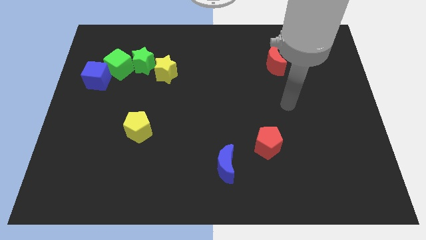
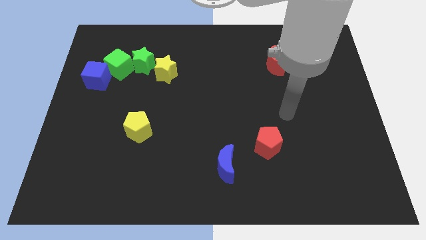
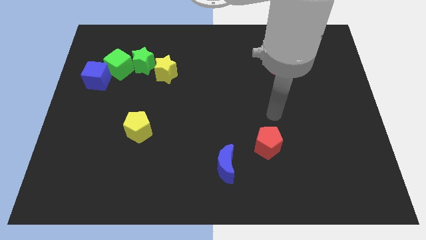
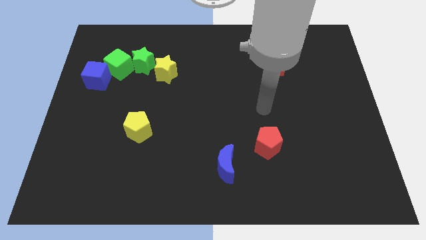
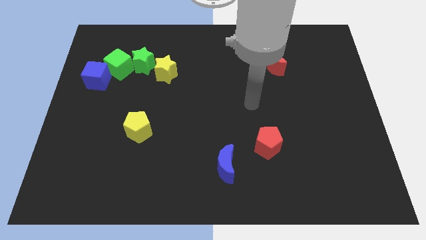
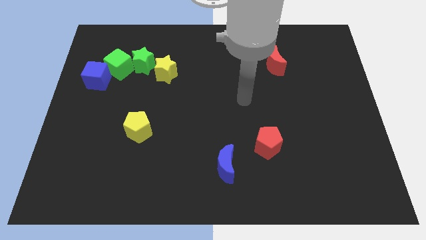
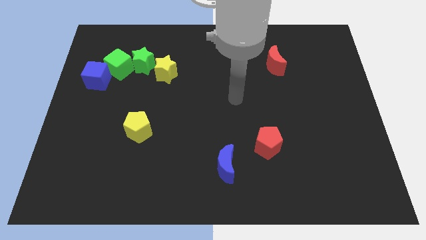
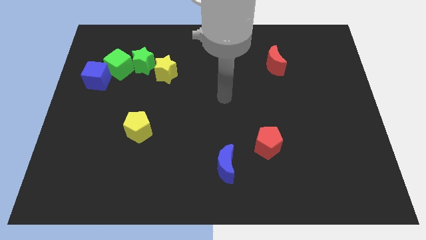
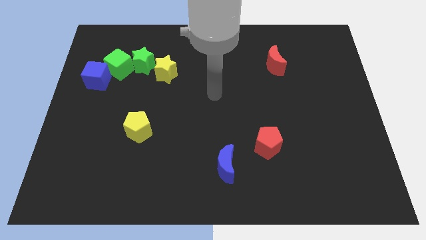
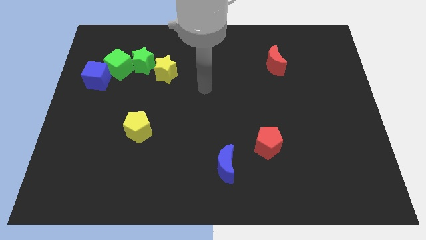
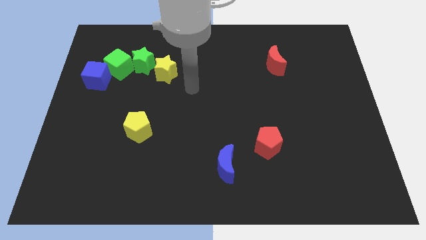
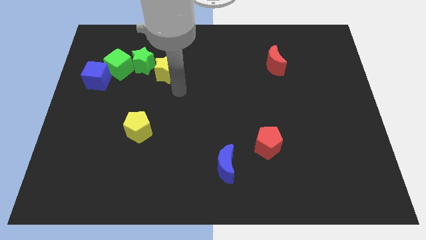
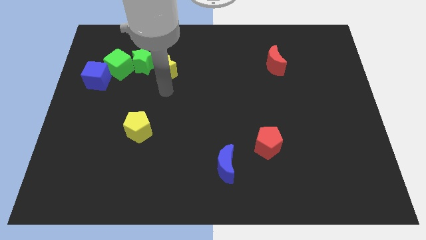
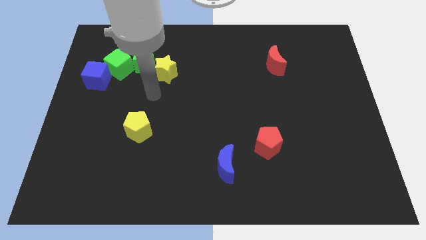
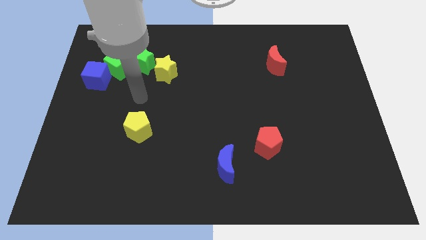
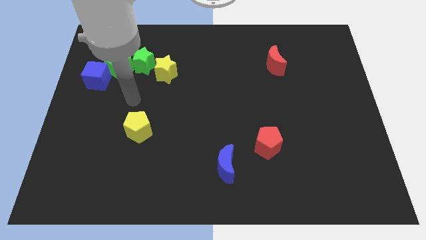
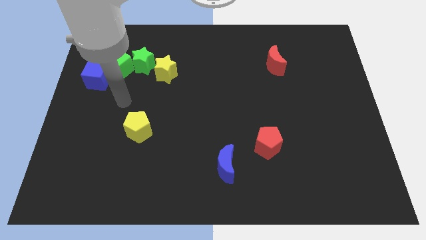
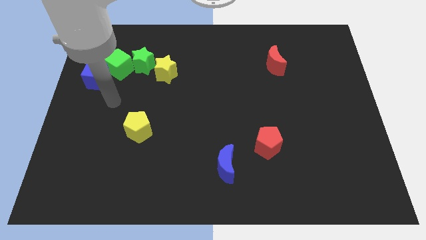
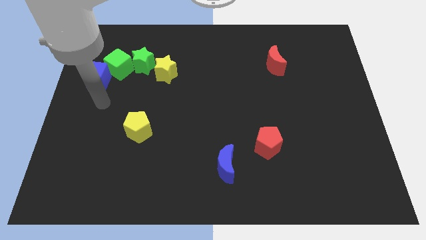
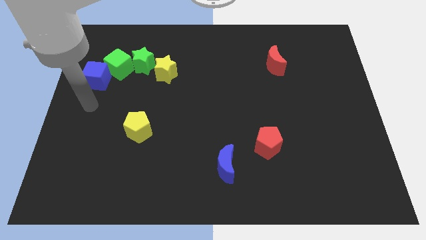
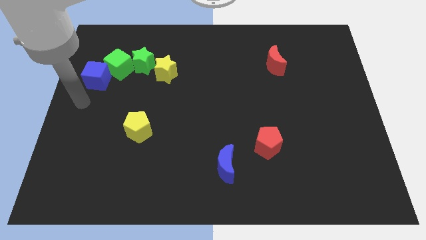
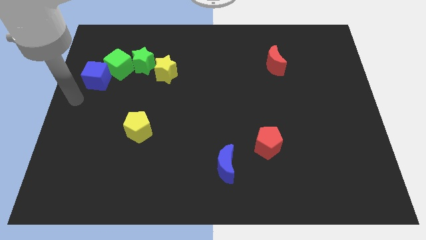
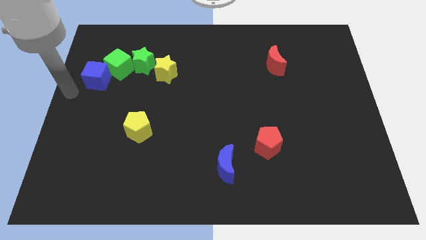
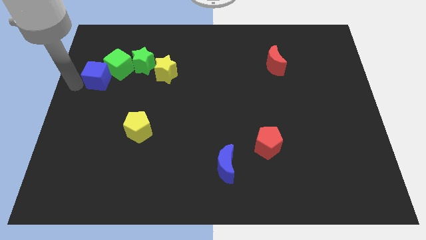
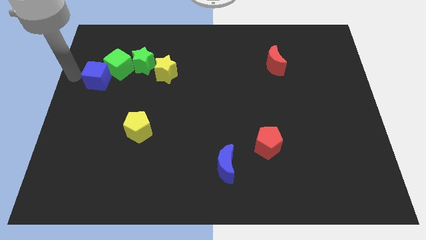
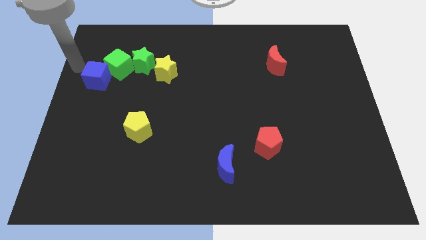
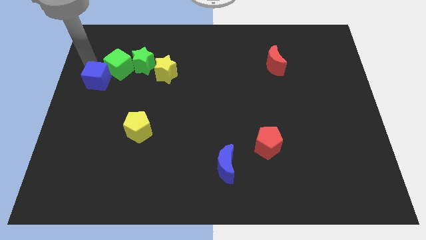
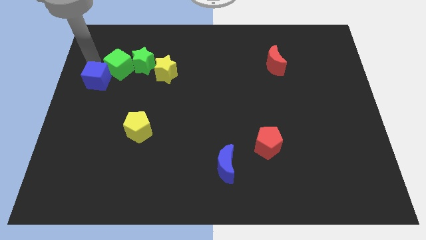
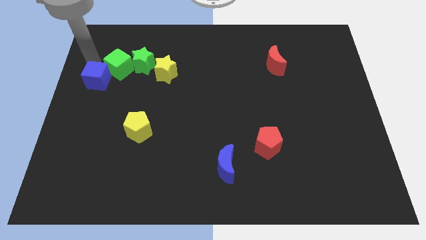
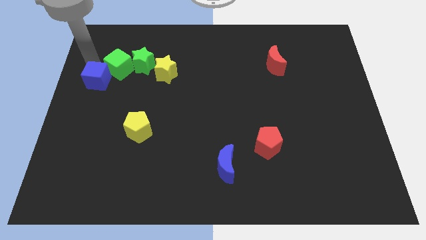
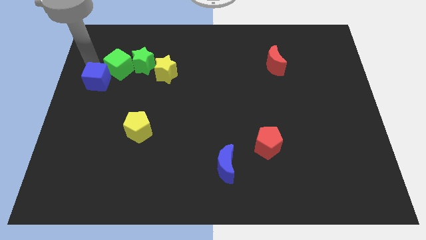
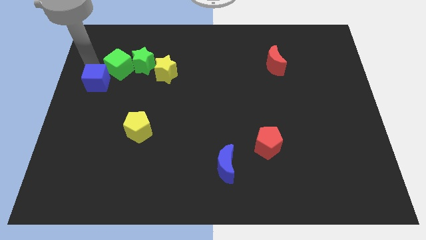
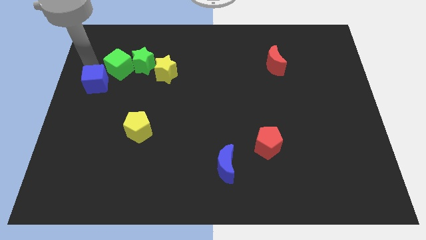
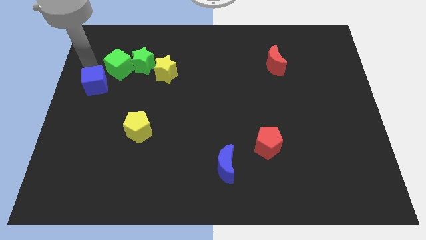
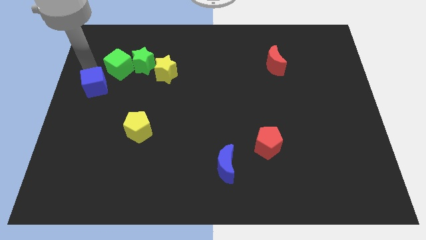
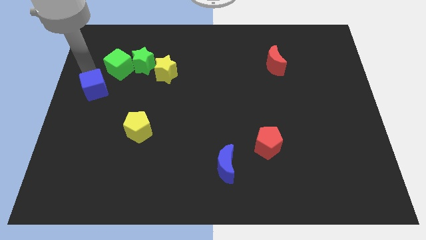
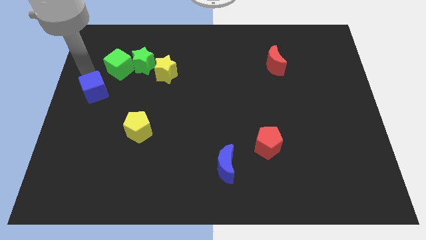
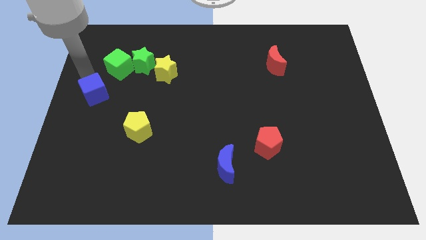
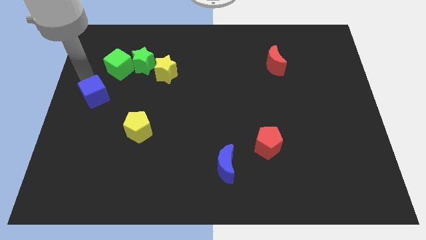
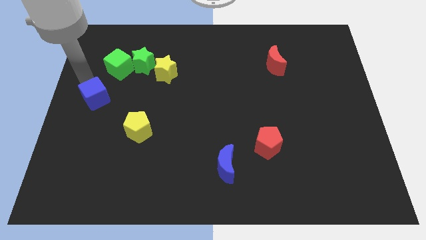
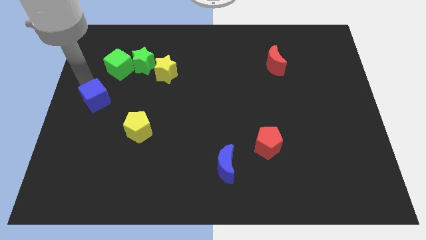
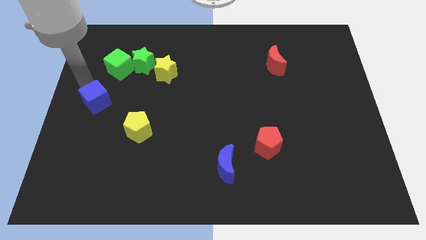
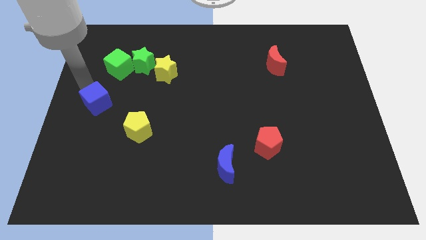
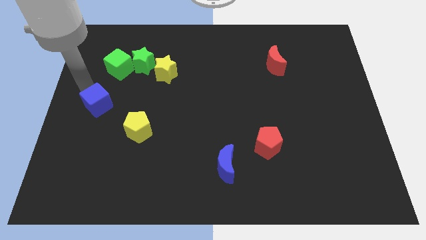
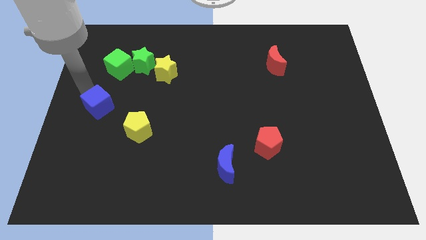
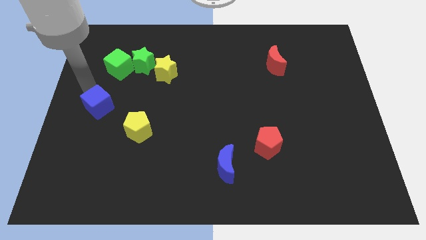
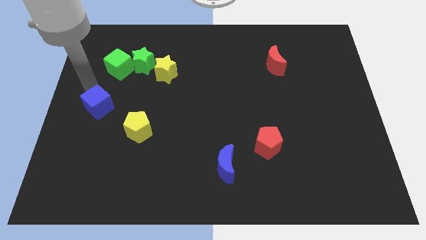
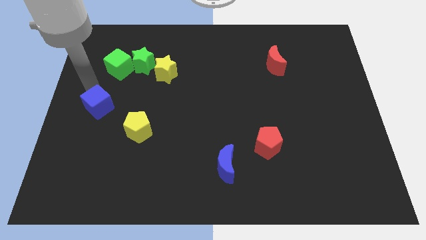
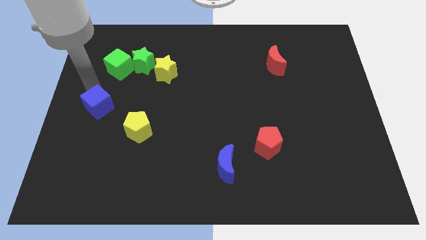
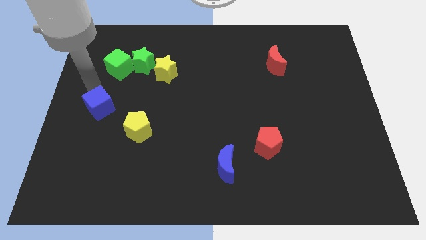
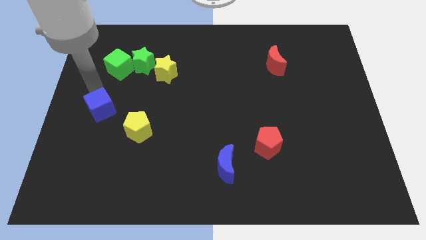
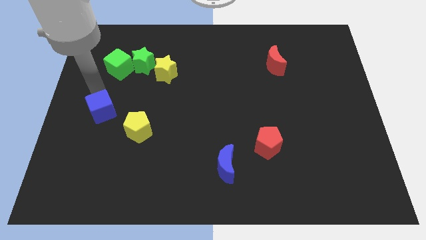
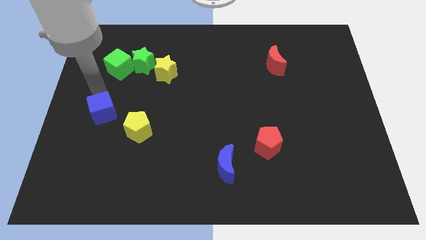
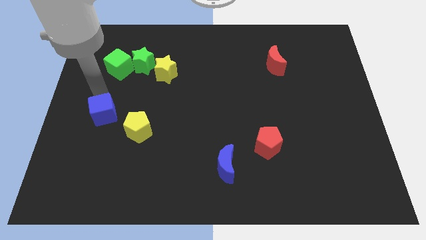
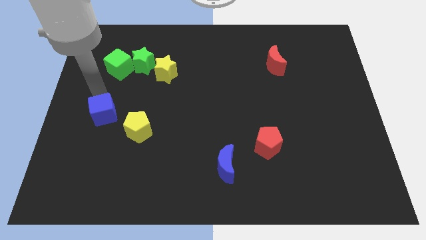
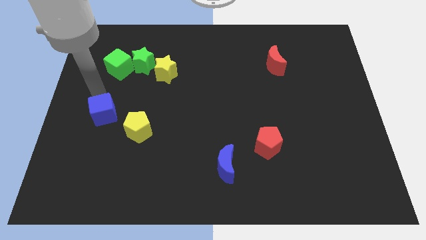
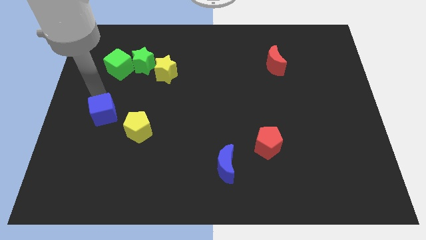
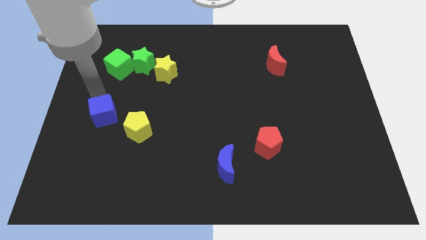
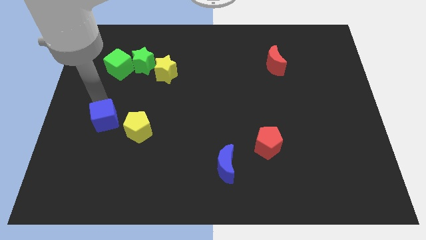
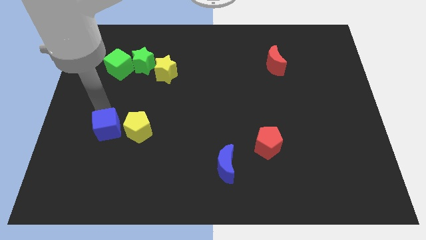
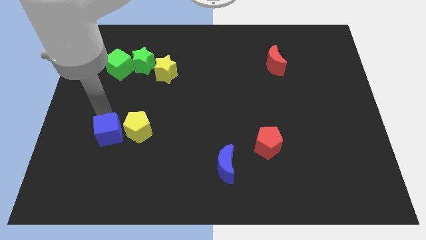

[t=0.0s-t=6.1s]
put the blue cube to the bottom left of the yellow pentagon
